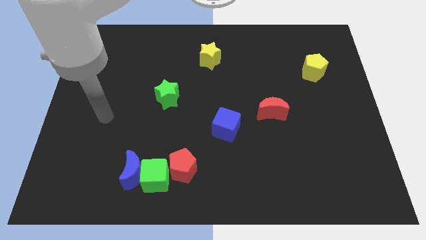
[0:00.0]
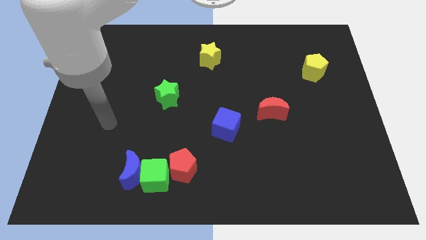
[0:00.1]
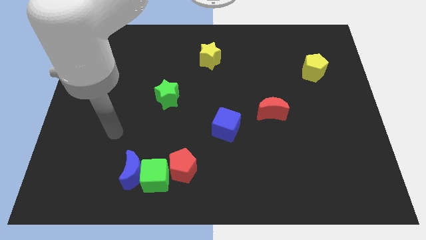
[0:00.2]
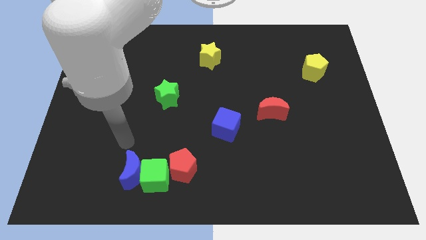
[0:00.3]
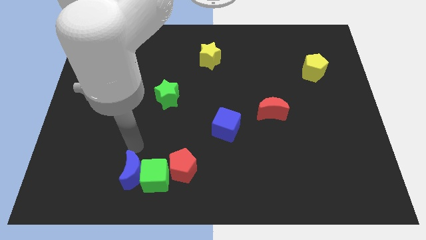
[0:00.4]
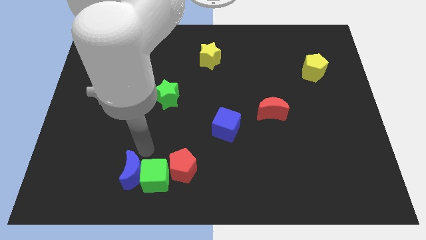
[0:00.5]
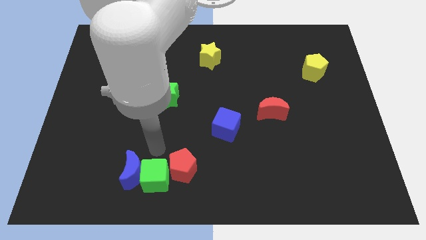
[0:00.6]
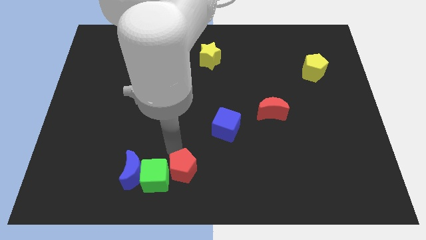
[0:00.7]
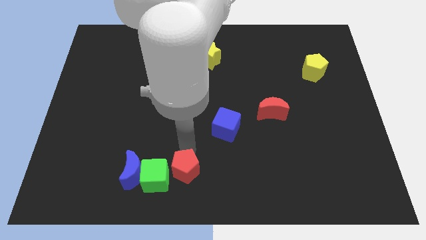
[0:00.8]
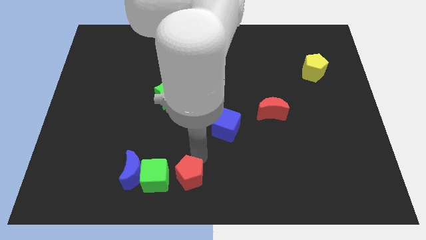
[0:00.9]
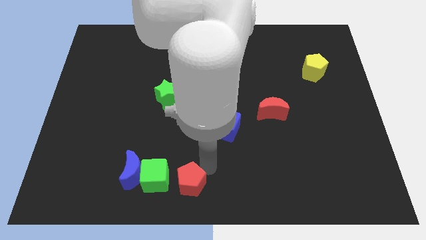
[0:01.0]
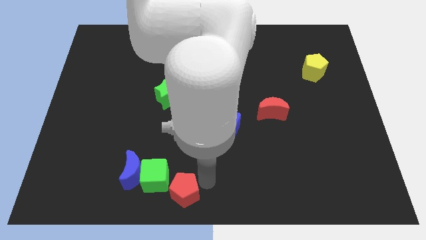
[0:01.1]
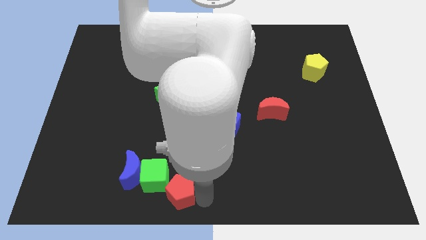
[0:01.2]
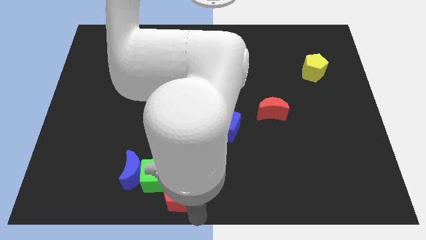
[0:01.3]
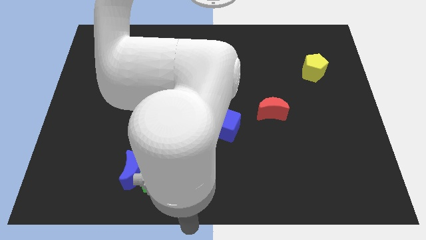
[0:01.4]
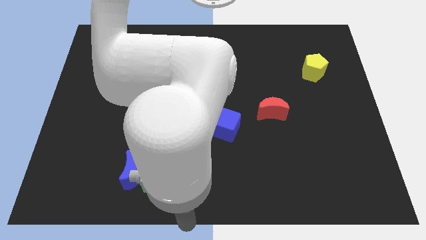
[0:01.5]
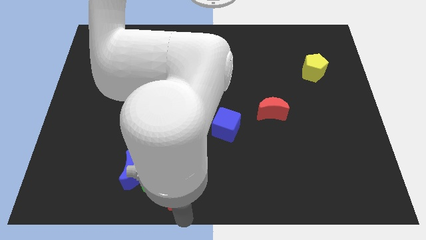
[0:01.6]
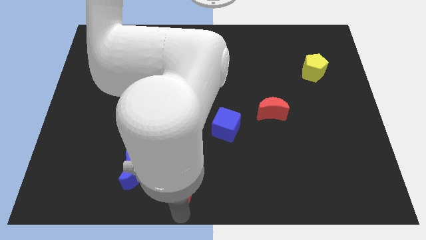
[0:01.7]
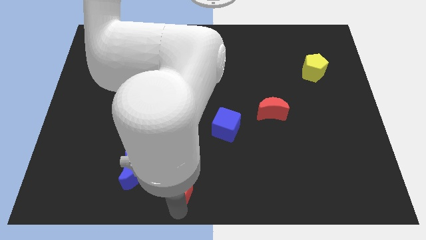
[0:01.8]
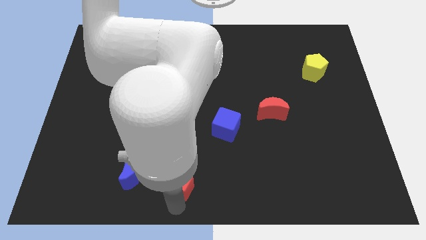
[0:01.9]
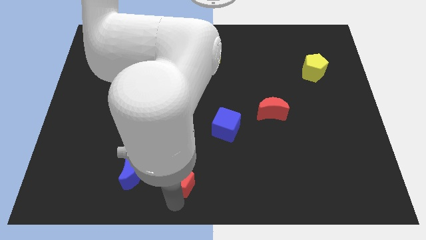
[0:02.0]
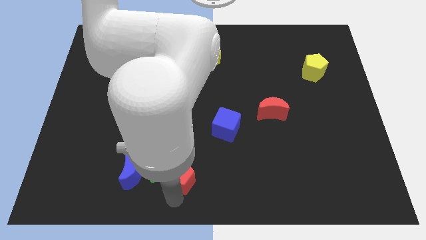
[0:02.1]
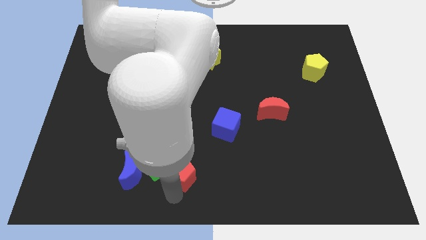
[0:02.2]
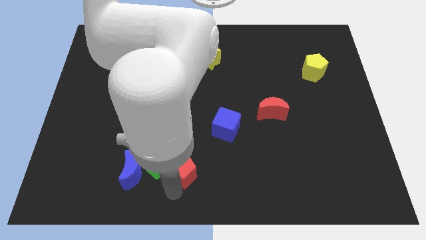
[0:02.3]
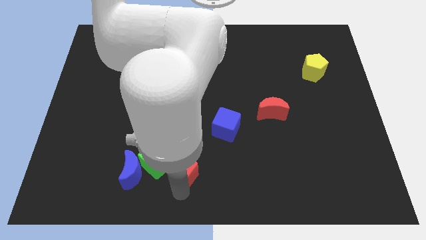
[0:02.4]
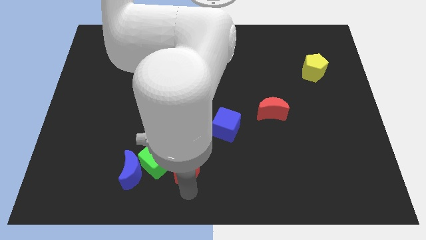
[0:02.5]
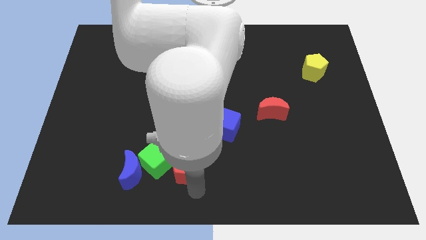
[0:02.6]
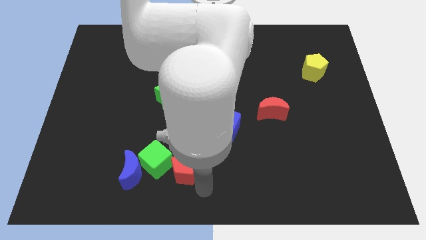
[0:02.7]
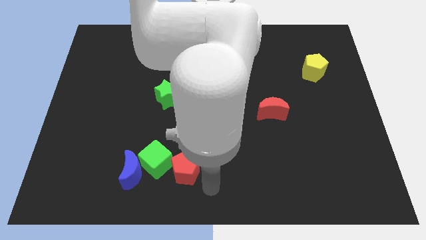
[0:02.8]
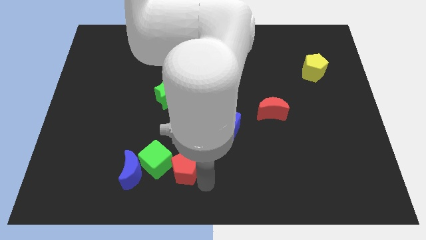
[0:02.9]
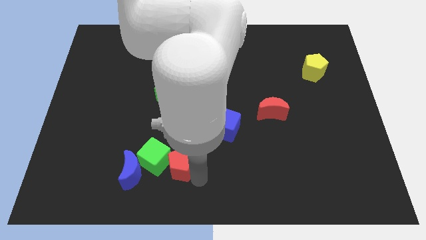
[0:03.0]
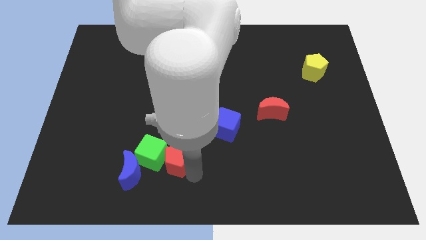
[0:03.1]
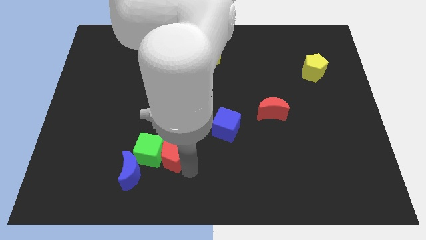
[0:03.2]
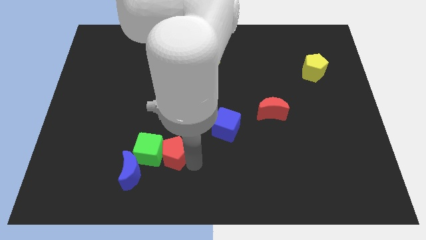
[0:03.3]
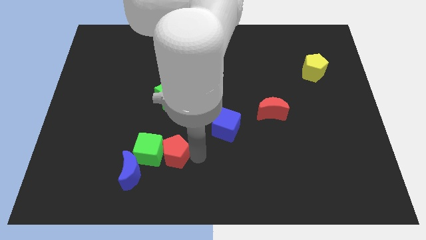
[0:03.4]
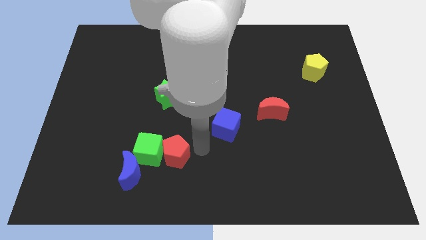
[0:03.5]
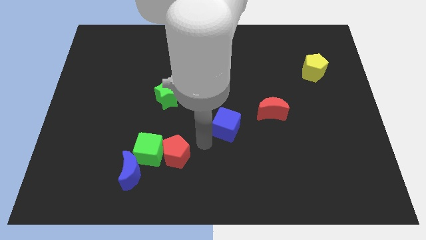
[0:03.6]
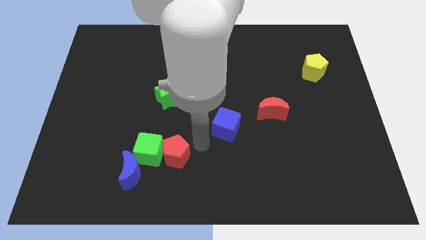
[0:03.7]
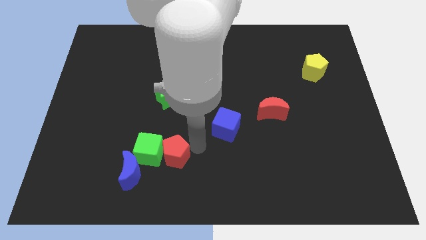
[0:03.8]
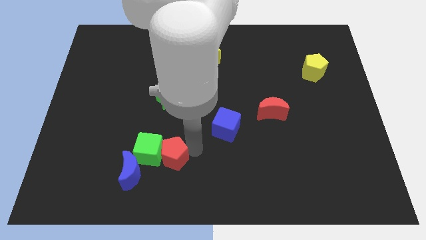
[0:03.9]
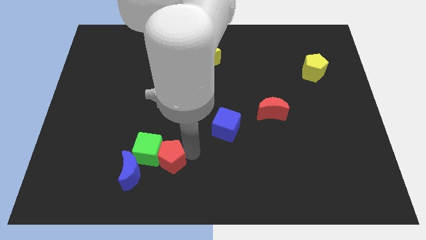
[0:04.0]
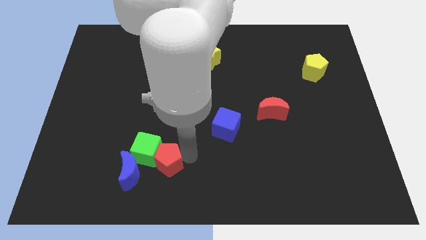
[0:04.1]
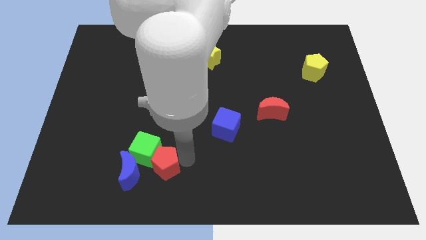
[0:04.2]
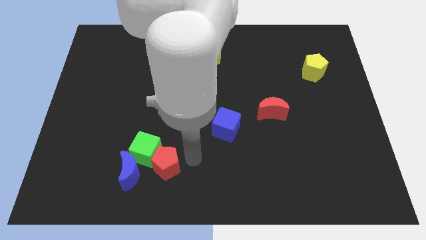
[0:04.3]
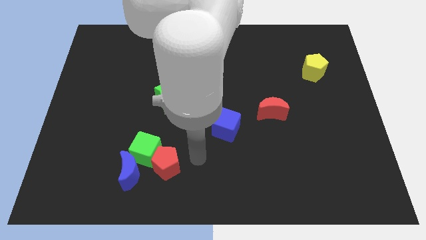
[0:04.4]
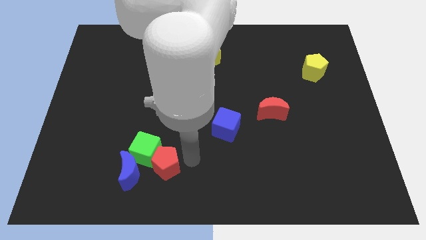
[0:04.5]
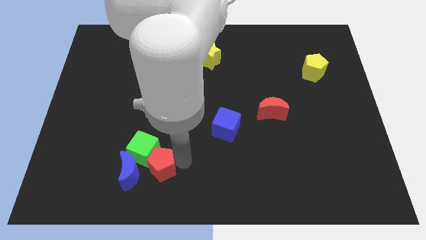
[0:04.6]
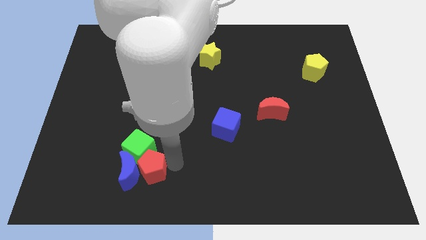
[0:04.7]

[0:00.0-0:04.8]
slide the red pentagon next to the blue moon

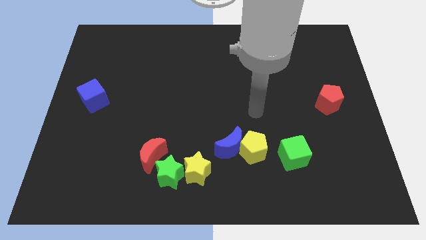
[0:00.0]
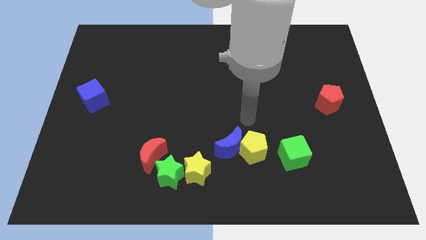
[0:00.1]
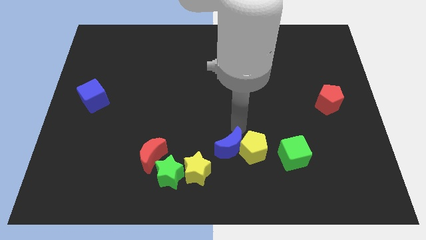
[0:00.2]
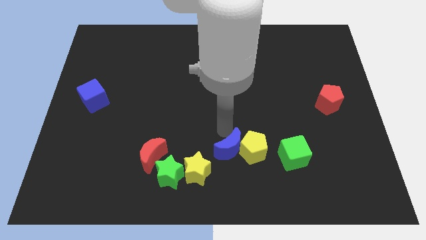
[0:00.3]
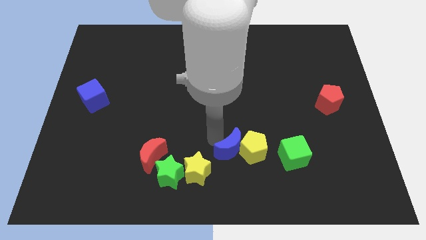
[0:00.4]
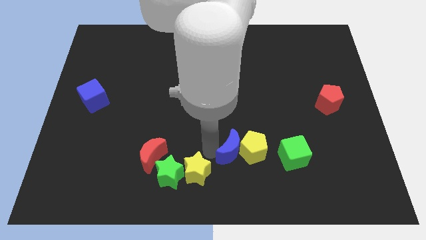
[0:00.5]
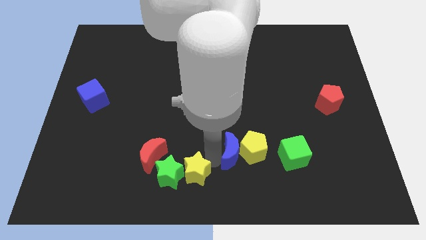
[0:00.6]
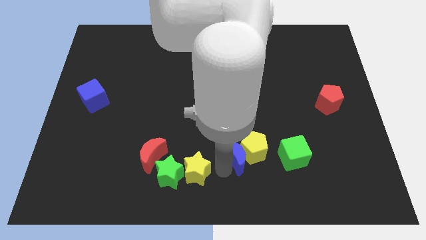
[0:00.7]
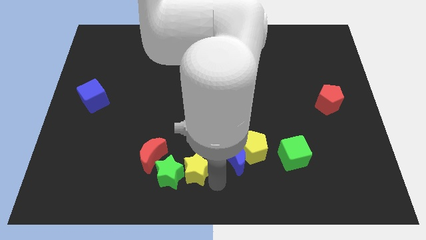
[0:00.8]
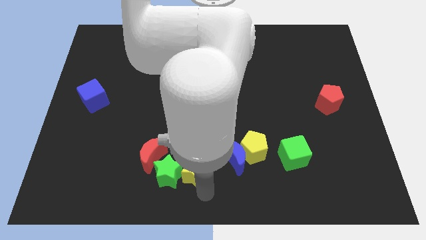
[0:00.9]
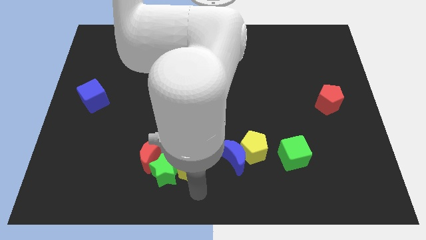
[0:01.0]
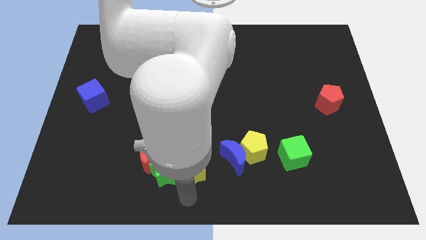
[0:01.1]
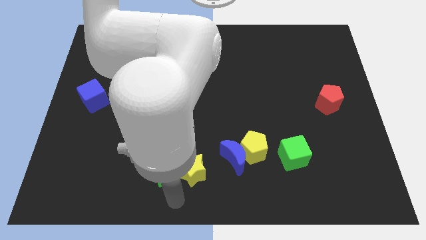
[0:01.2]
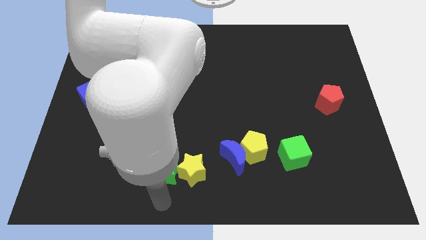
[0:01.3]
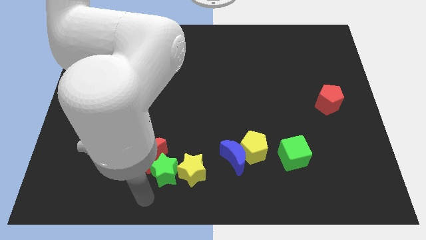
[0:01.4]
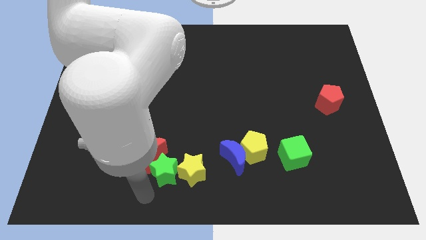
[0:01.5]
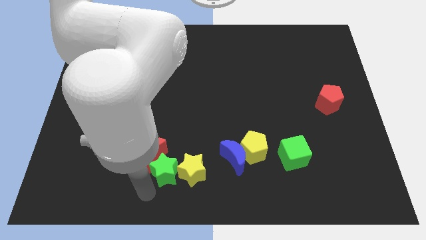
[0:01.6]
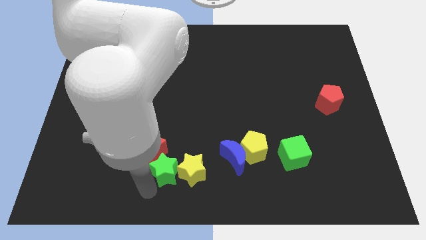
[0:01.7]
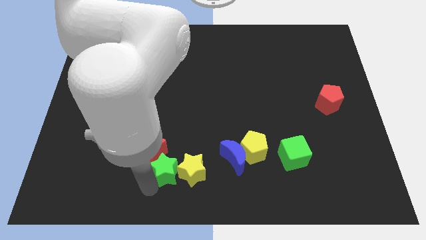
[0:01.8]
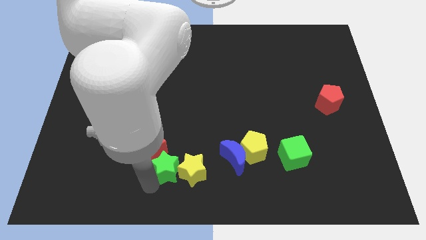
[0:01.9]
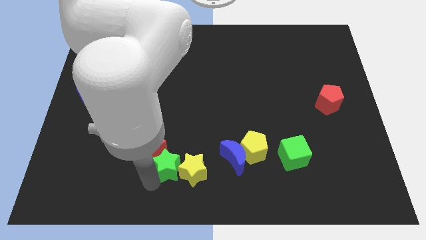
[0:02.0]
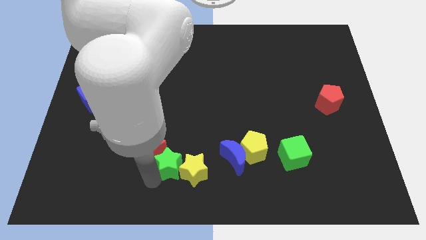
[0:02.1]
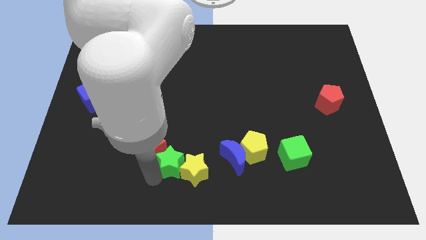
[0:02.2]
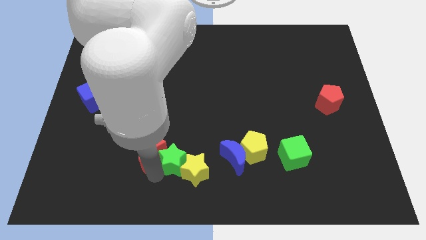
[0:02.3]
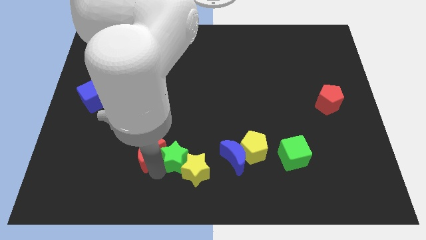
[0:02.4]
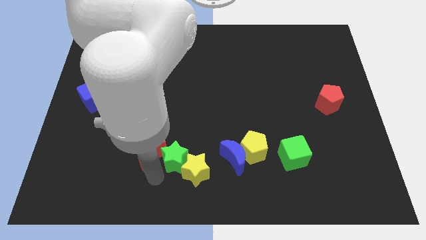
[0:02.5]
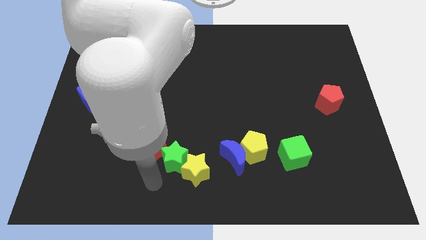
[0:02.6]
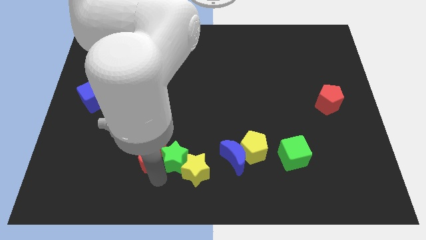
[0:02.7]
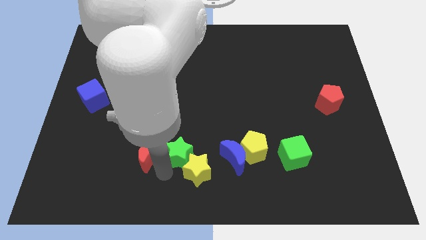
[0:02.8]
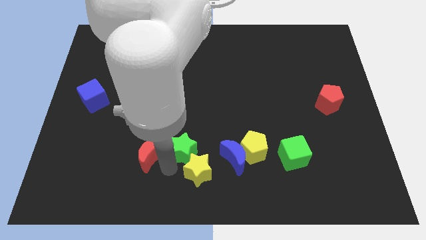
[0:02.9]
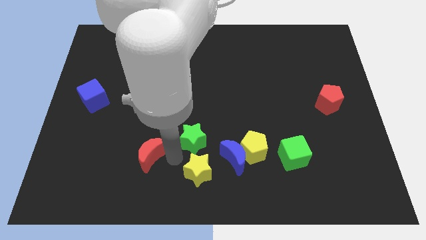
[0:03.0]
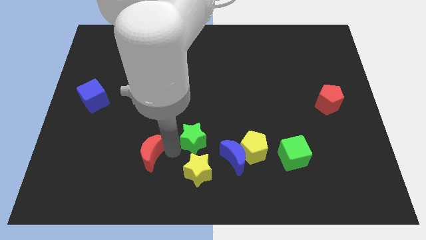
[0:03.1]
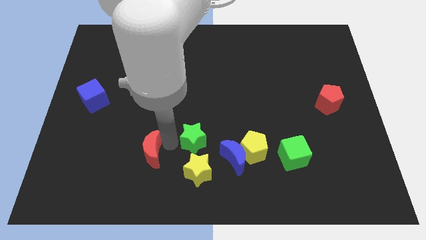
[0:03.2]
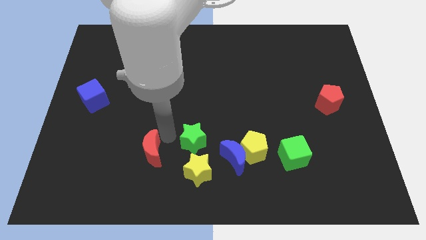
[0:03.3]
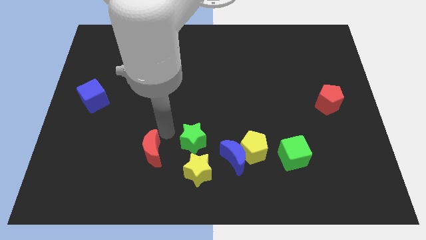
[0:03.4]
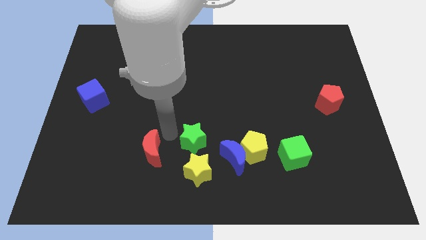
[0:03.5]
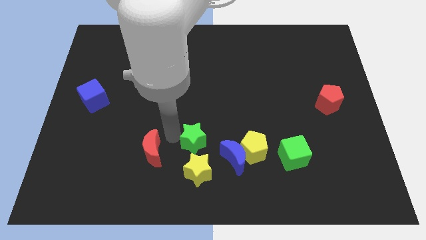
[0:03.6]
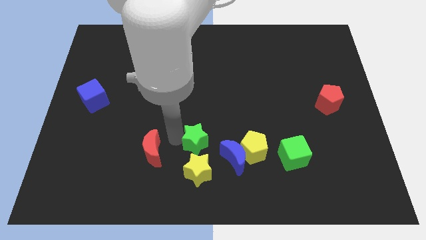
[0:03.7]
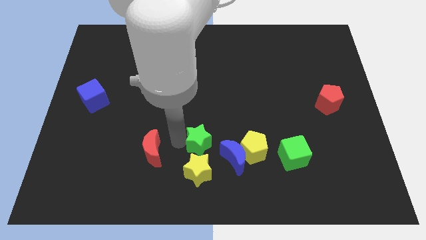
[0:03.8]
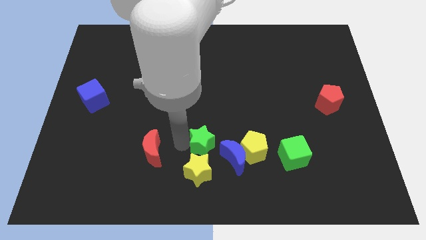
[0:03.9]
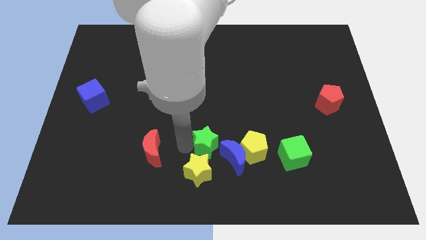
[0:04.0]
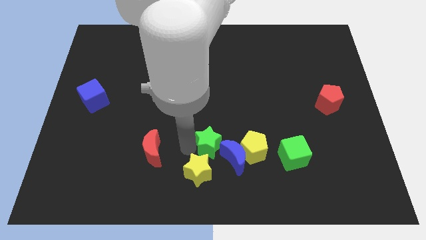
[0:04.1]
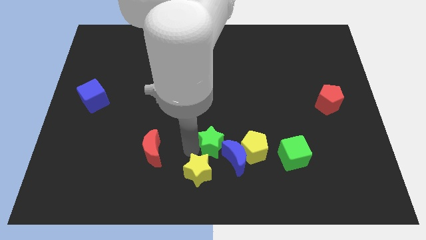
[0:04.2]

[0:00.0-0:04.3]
slide the green star close to the blue moon
